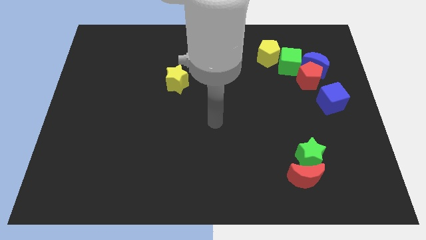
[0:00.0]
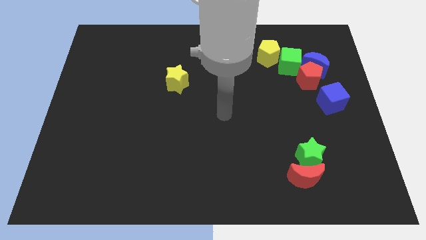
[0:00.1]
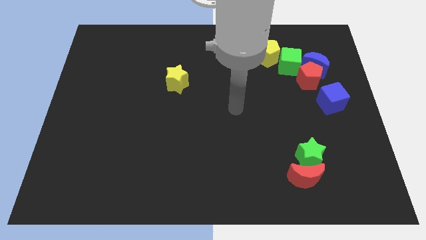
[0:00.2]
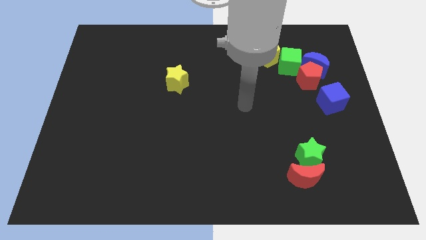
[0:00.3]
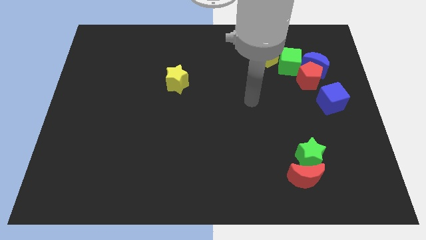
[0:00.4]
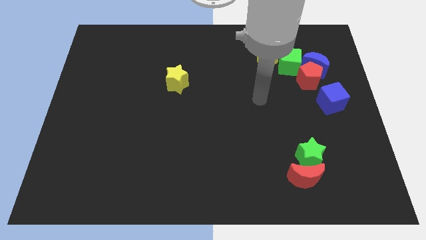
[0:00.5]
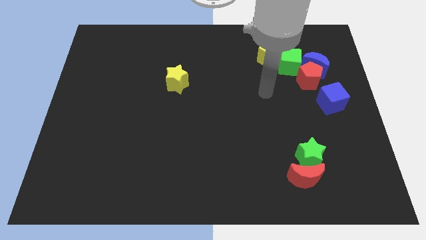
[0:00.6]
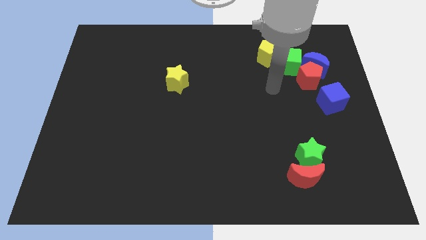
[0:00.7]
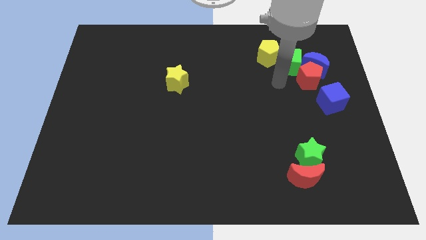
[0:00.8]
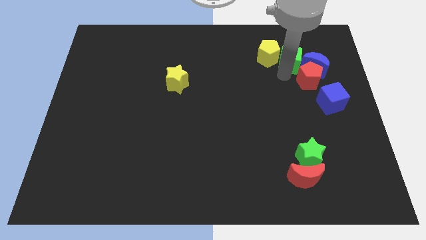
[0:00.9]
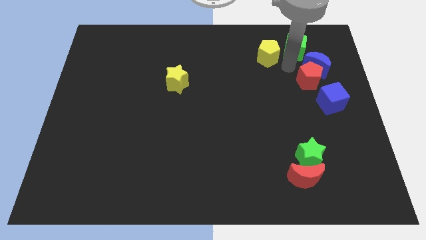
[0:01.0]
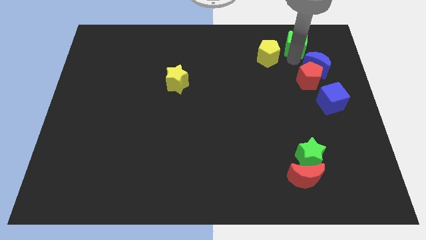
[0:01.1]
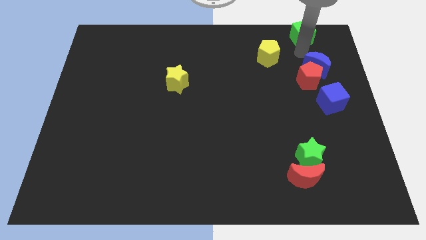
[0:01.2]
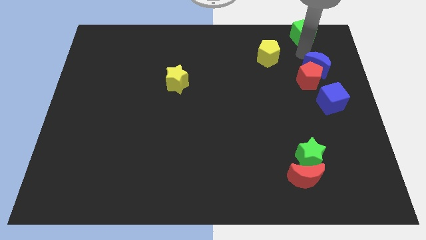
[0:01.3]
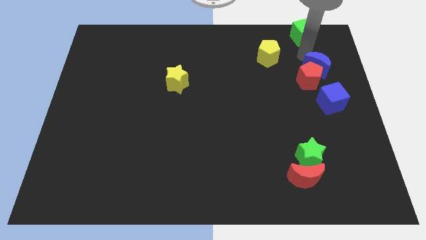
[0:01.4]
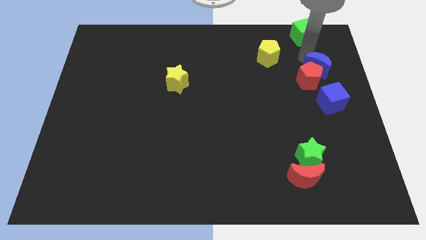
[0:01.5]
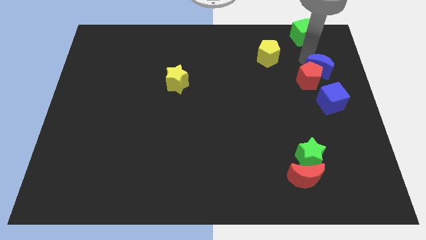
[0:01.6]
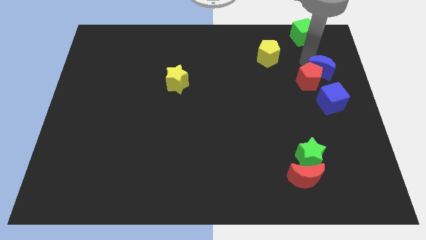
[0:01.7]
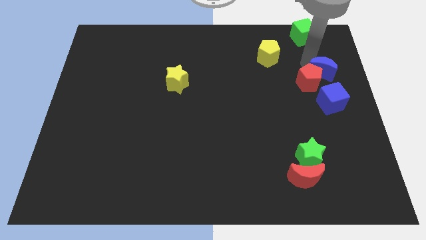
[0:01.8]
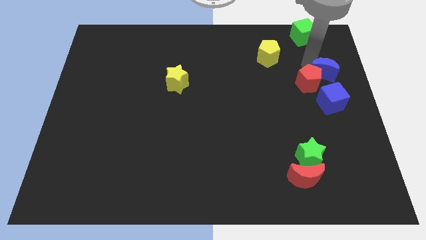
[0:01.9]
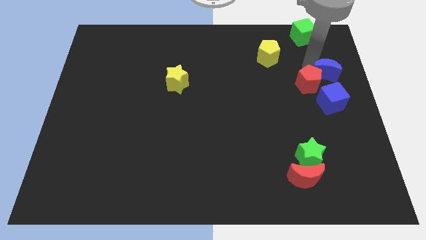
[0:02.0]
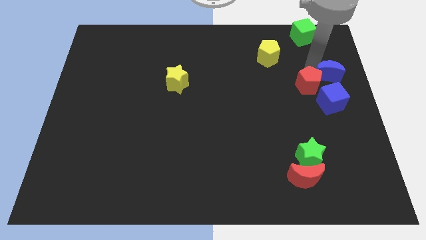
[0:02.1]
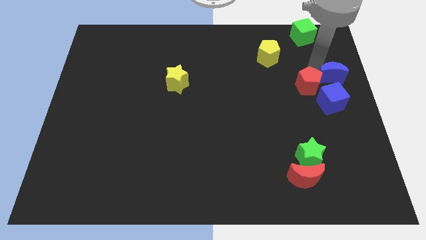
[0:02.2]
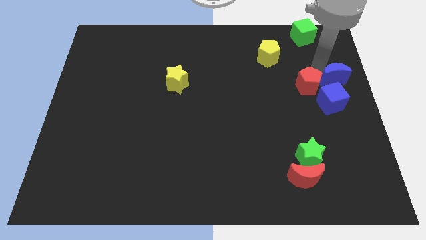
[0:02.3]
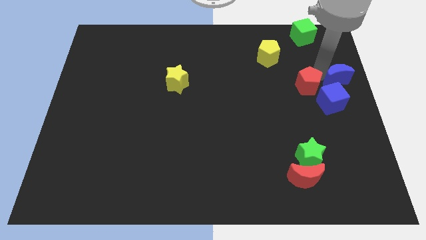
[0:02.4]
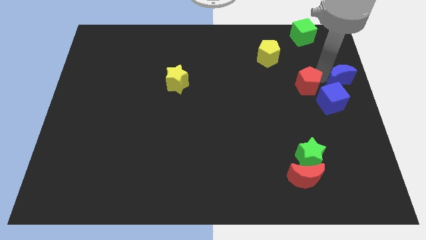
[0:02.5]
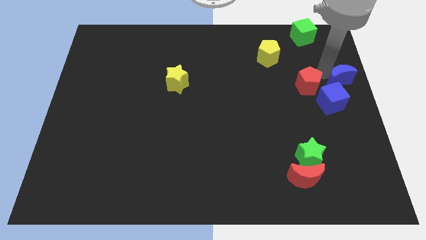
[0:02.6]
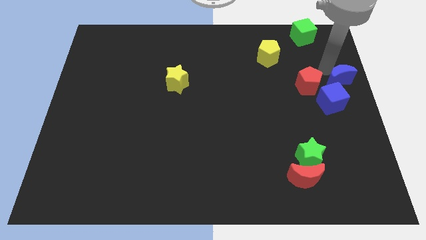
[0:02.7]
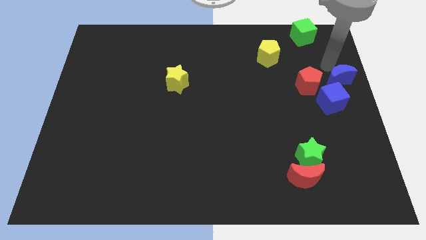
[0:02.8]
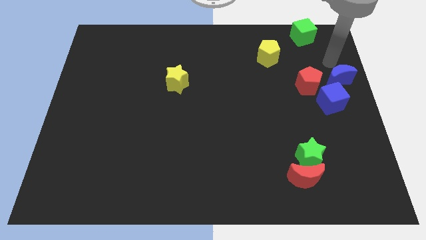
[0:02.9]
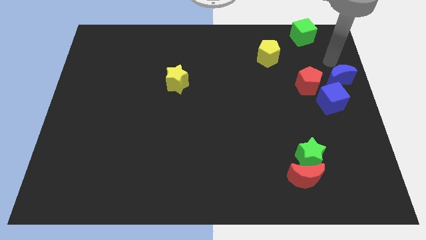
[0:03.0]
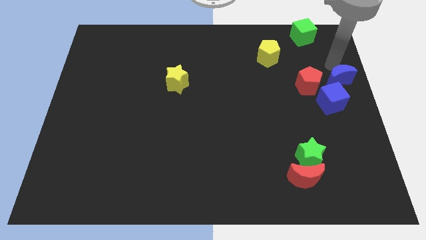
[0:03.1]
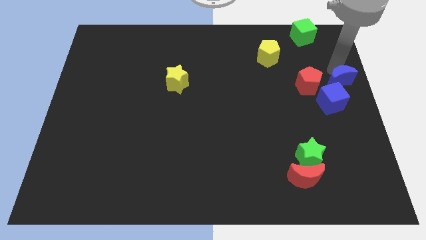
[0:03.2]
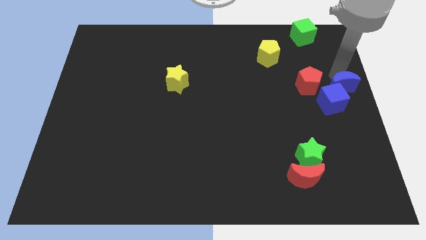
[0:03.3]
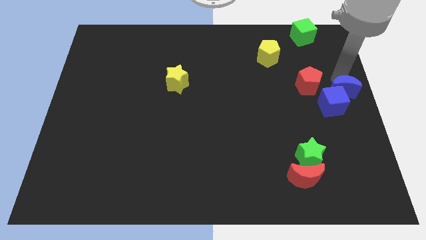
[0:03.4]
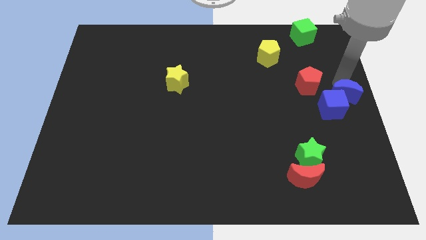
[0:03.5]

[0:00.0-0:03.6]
move the blue moon downwards a little bit

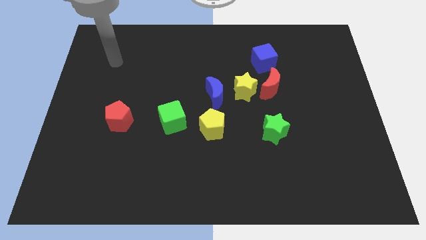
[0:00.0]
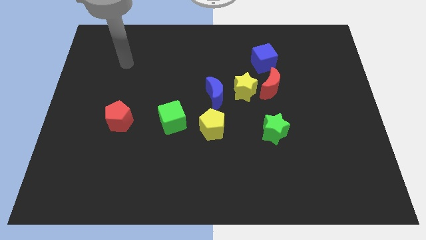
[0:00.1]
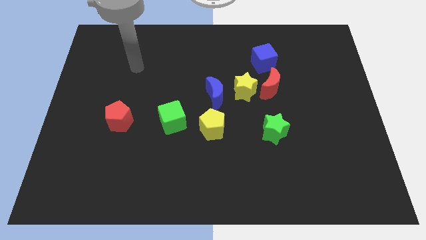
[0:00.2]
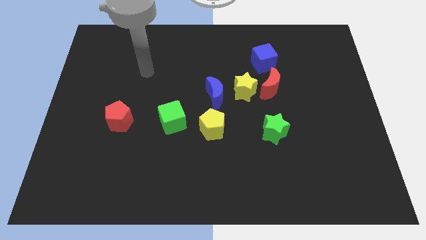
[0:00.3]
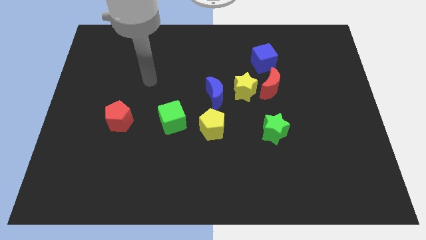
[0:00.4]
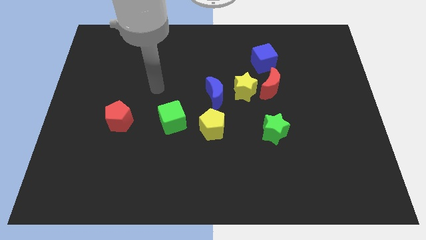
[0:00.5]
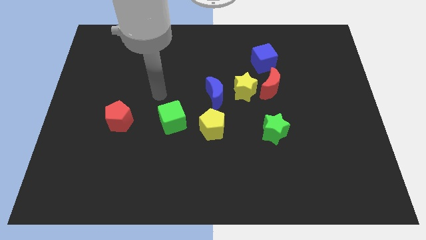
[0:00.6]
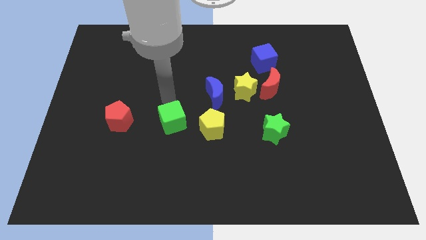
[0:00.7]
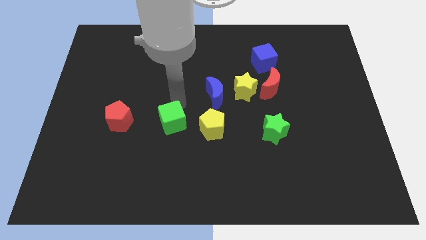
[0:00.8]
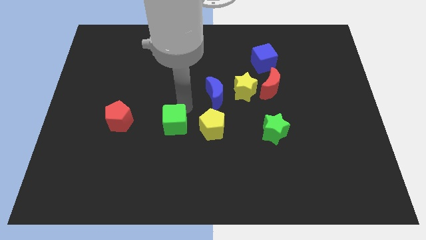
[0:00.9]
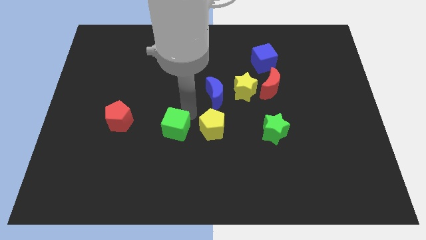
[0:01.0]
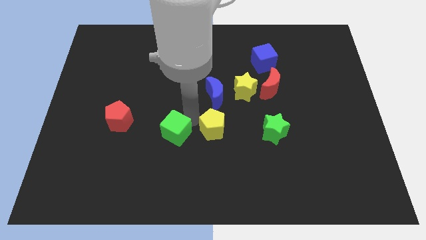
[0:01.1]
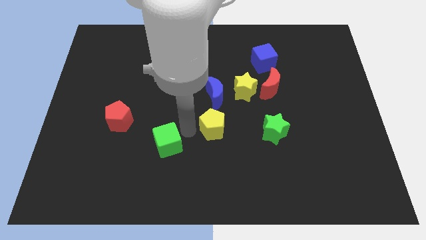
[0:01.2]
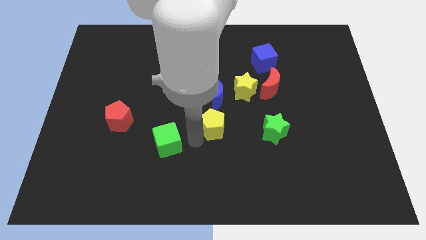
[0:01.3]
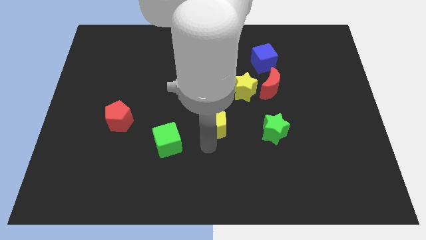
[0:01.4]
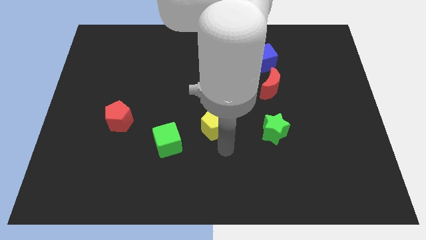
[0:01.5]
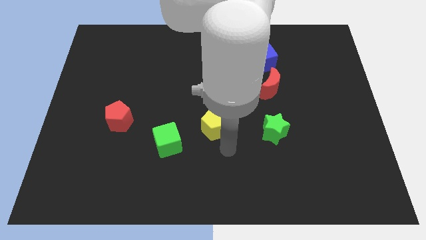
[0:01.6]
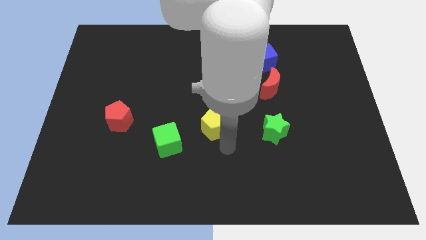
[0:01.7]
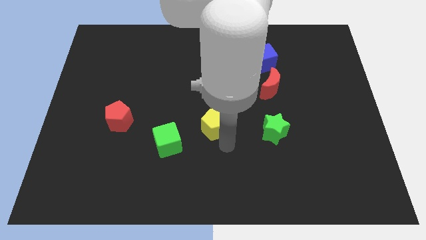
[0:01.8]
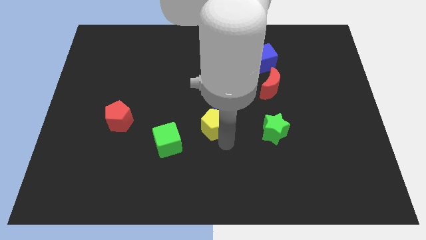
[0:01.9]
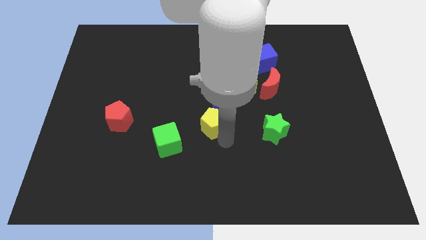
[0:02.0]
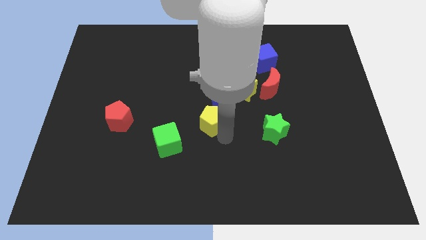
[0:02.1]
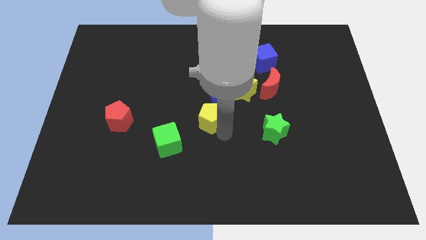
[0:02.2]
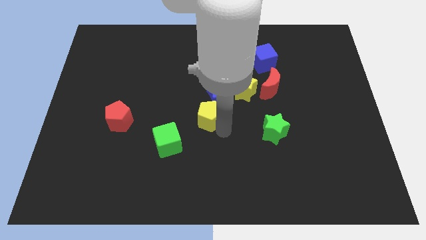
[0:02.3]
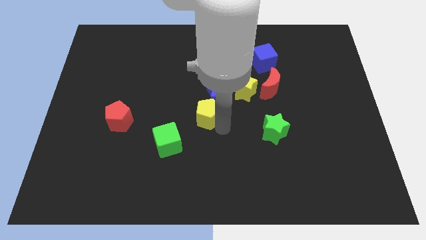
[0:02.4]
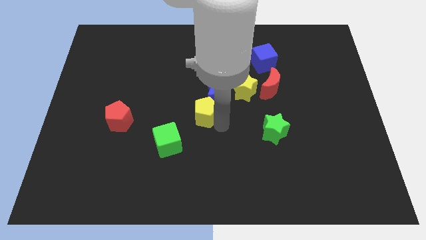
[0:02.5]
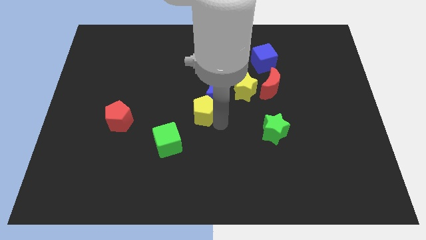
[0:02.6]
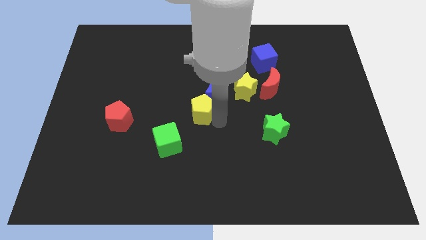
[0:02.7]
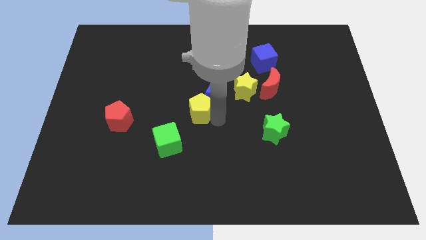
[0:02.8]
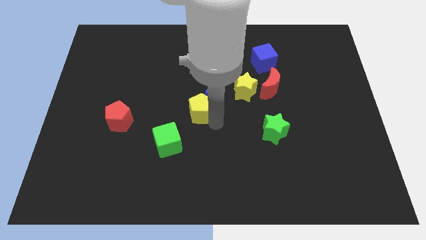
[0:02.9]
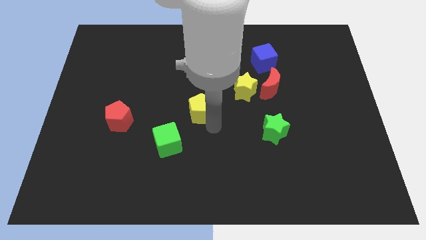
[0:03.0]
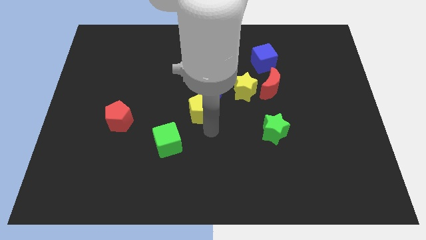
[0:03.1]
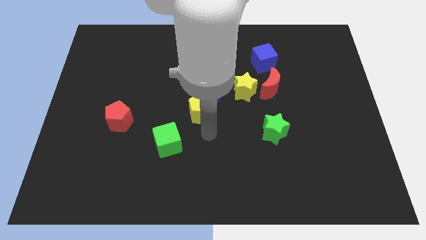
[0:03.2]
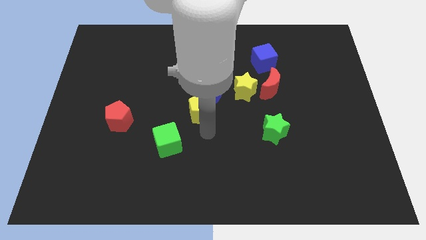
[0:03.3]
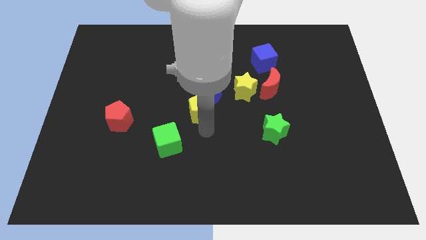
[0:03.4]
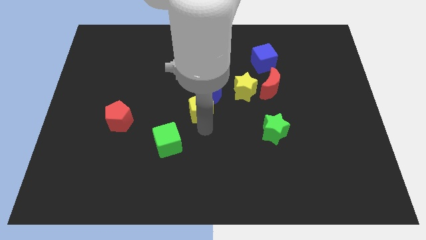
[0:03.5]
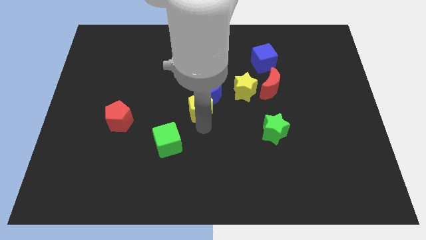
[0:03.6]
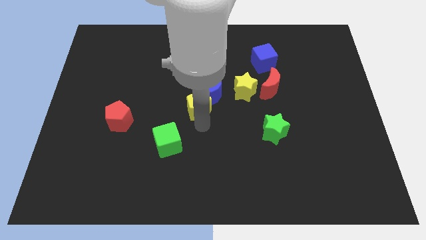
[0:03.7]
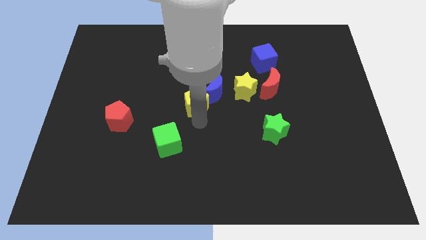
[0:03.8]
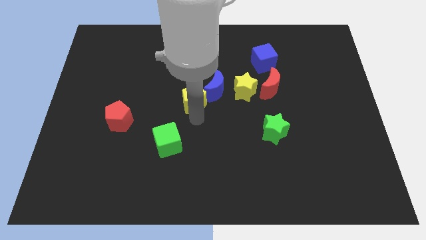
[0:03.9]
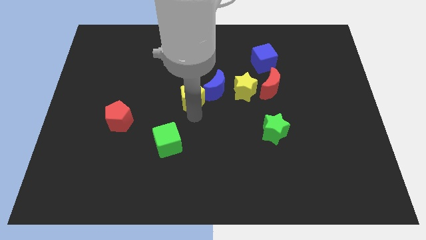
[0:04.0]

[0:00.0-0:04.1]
slightly push the yellow pentagon up

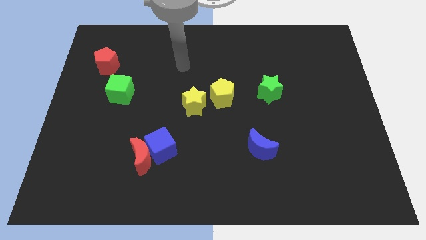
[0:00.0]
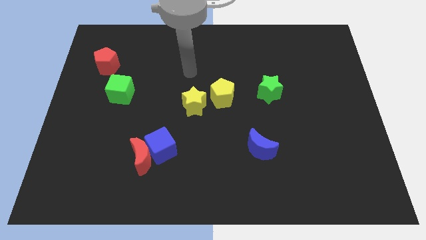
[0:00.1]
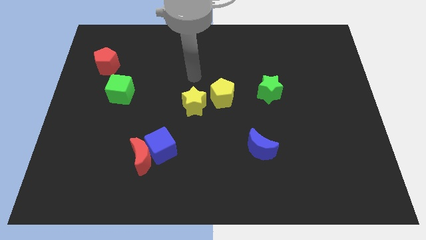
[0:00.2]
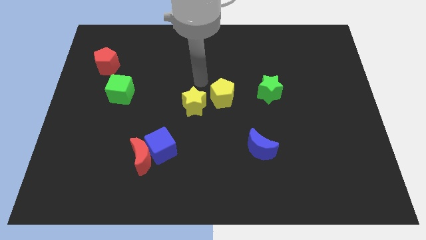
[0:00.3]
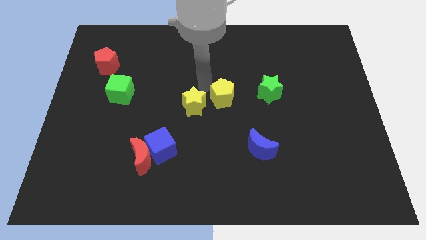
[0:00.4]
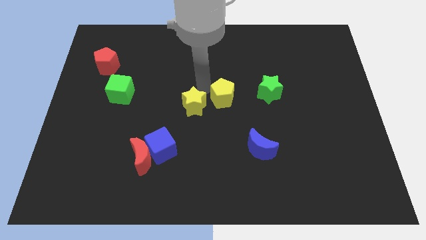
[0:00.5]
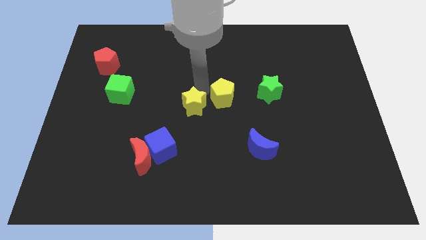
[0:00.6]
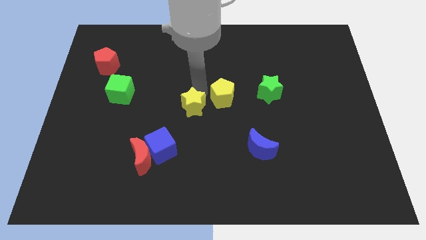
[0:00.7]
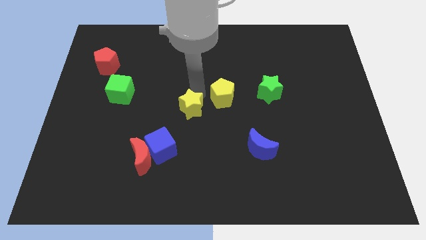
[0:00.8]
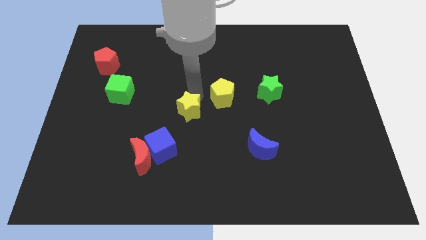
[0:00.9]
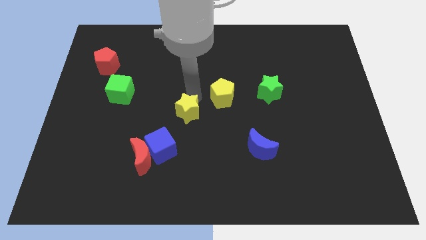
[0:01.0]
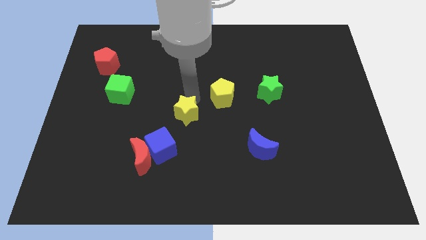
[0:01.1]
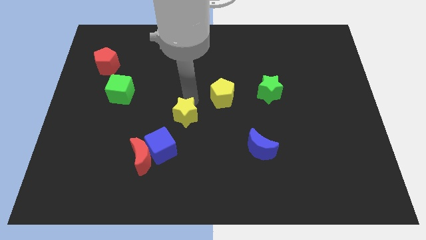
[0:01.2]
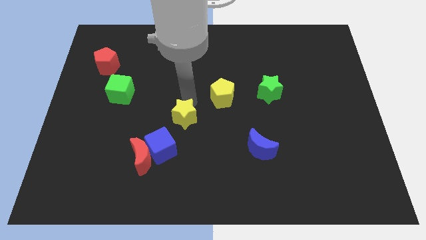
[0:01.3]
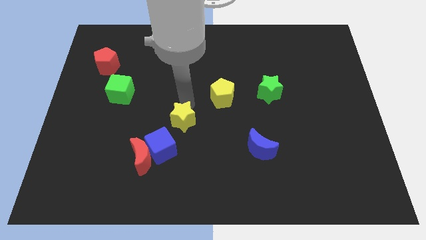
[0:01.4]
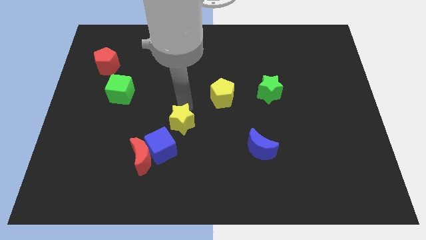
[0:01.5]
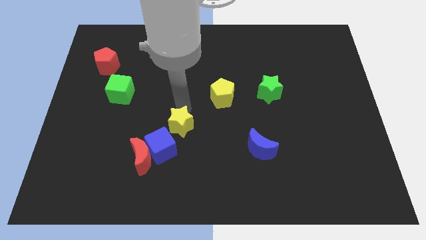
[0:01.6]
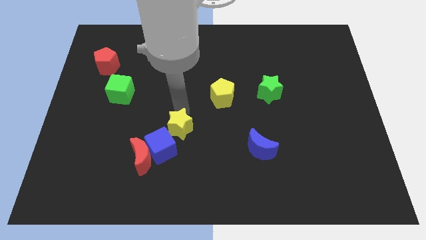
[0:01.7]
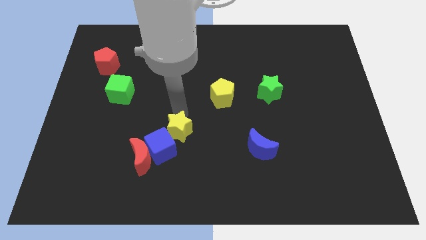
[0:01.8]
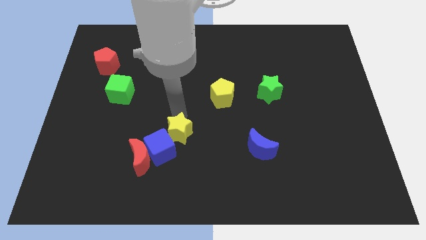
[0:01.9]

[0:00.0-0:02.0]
slightly move the yellow star down
